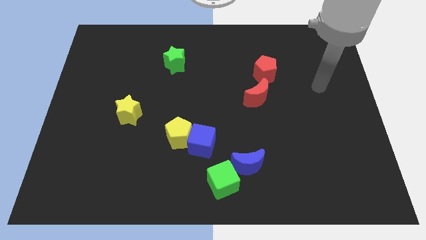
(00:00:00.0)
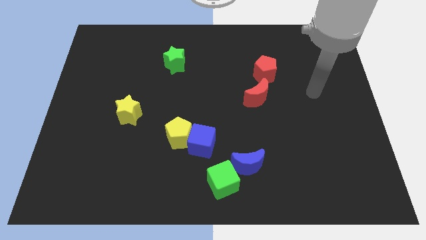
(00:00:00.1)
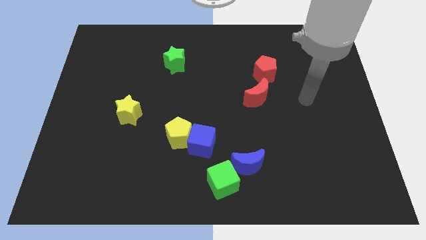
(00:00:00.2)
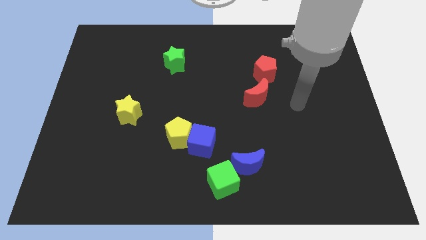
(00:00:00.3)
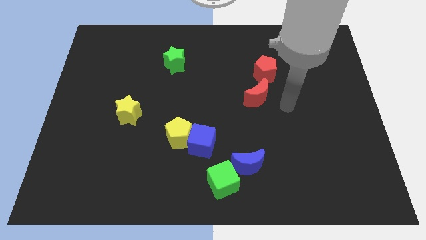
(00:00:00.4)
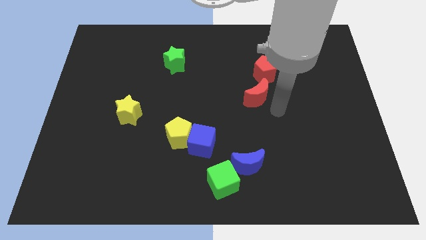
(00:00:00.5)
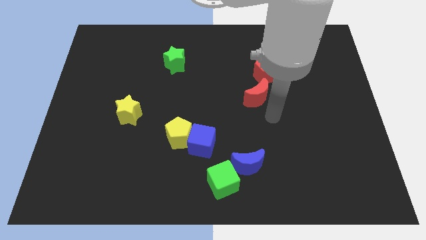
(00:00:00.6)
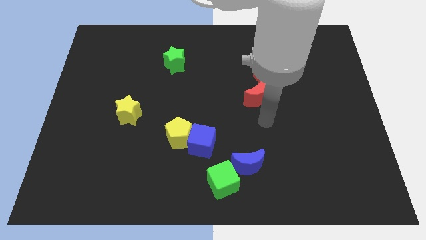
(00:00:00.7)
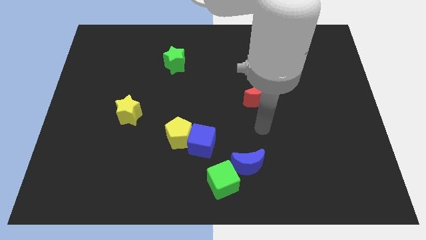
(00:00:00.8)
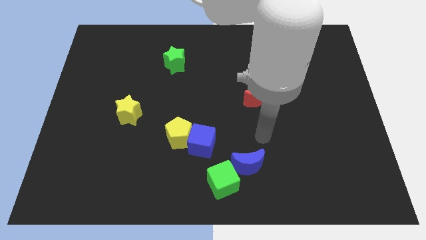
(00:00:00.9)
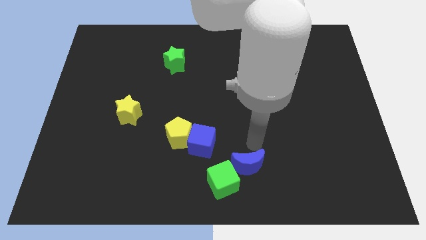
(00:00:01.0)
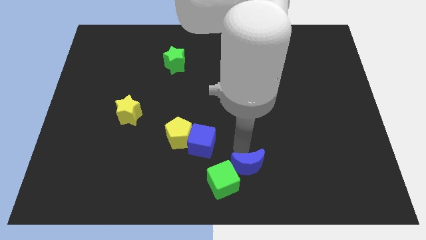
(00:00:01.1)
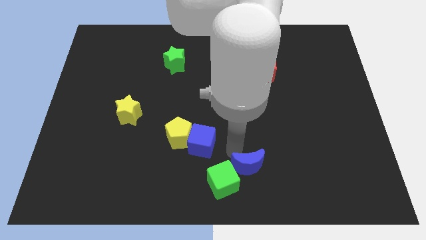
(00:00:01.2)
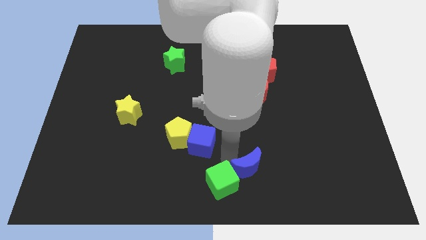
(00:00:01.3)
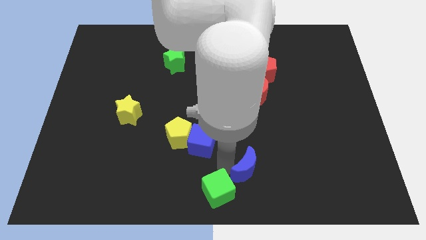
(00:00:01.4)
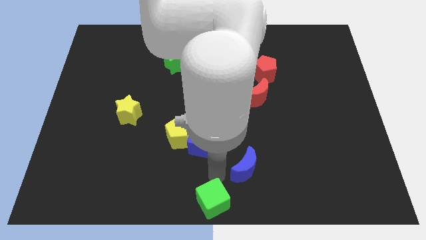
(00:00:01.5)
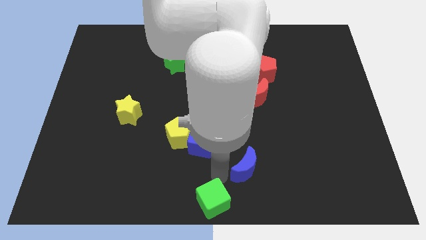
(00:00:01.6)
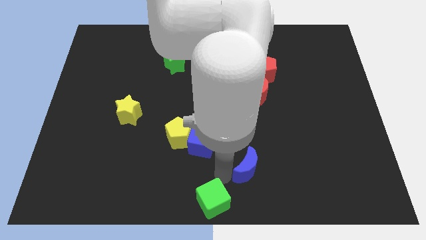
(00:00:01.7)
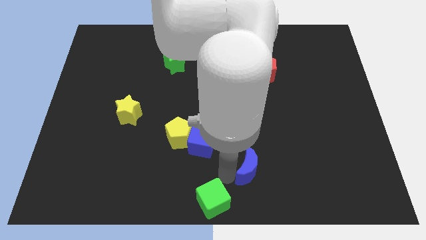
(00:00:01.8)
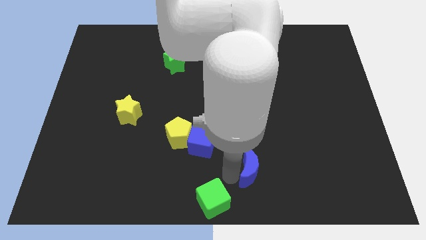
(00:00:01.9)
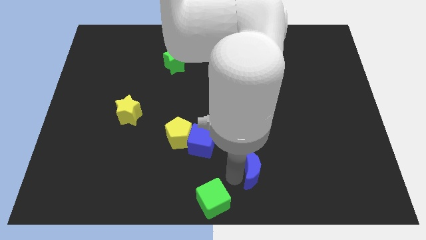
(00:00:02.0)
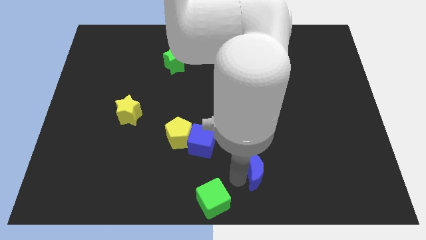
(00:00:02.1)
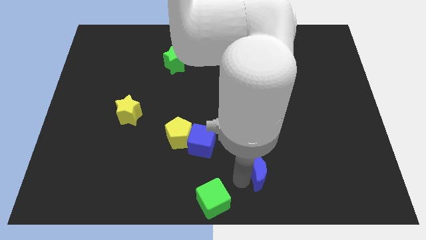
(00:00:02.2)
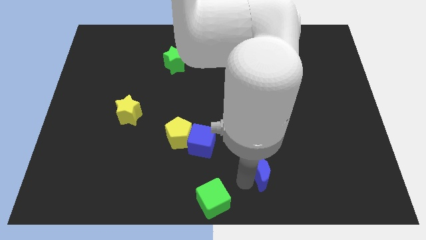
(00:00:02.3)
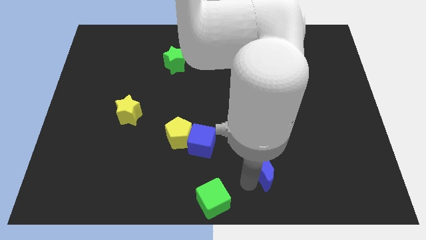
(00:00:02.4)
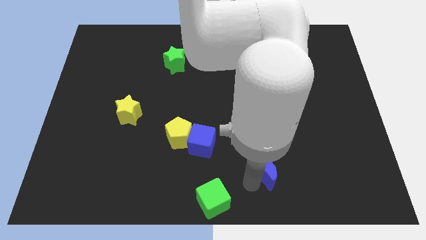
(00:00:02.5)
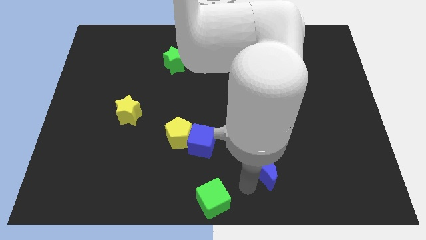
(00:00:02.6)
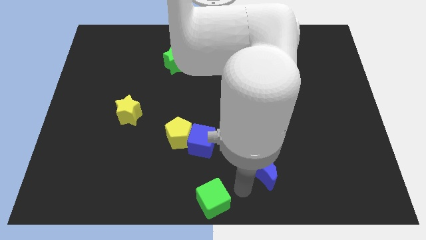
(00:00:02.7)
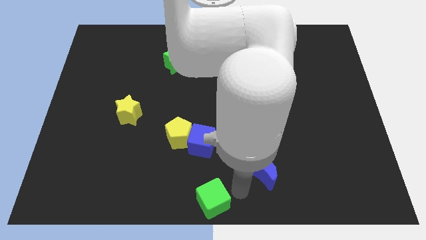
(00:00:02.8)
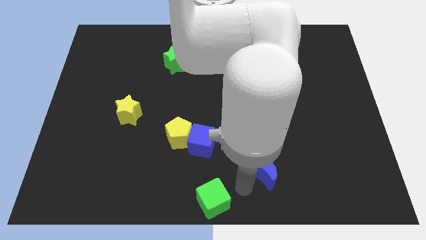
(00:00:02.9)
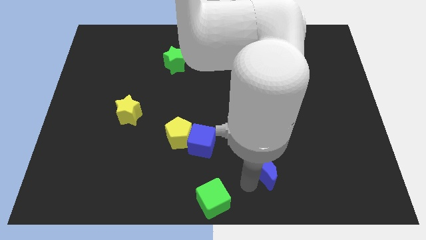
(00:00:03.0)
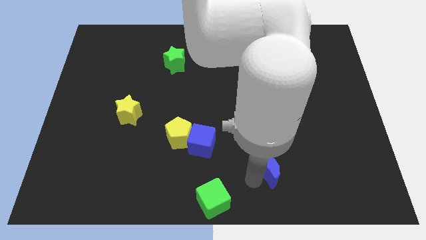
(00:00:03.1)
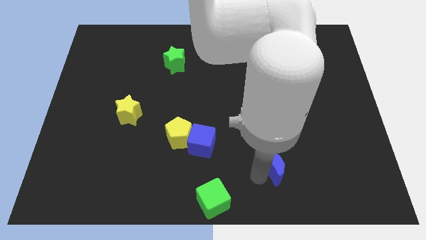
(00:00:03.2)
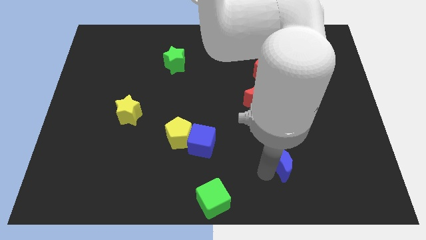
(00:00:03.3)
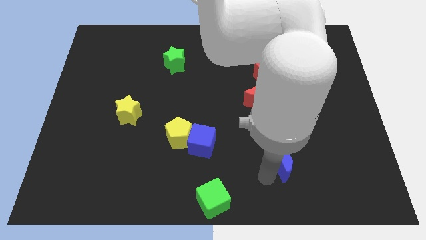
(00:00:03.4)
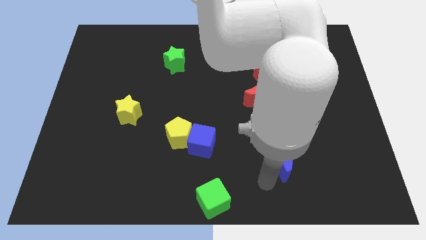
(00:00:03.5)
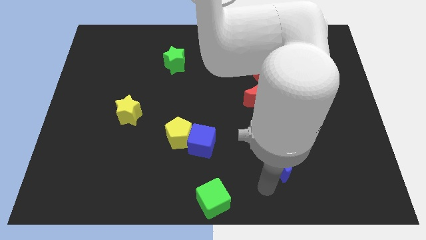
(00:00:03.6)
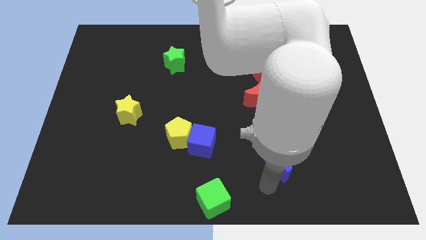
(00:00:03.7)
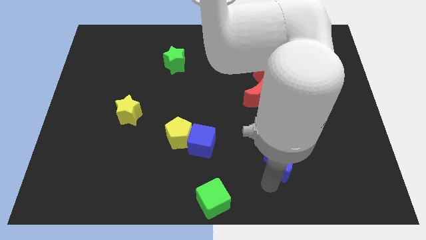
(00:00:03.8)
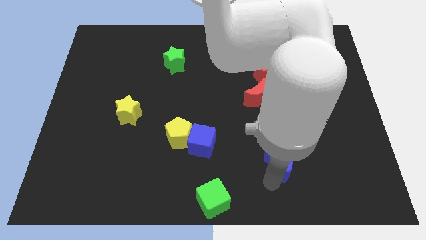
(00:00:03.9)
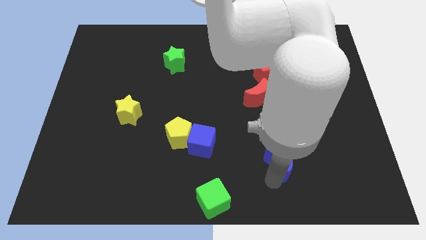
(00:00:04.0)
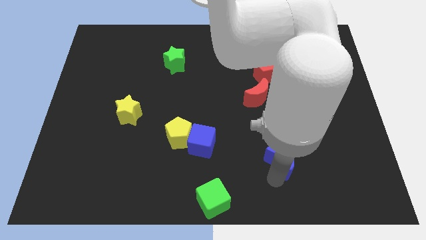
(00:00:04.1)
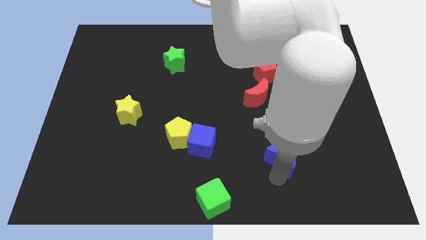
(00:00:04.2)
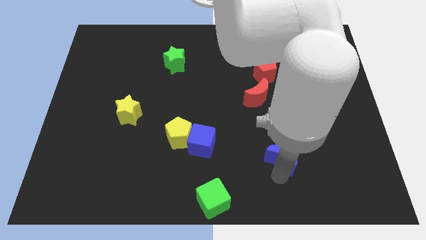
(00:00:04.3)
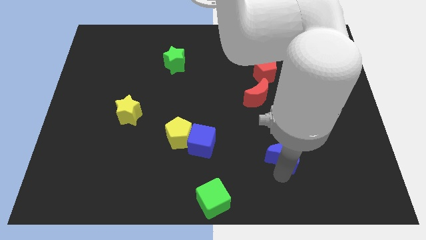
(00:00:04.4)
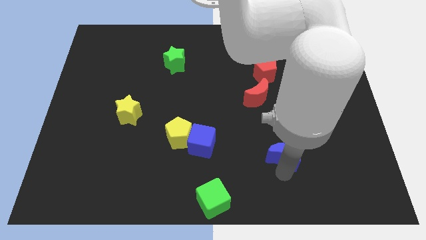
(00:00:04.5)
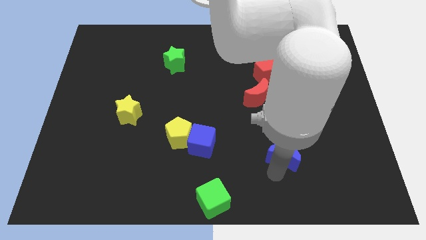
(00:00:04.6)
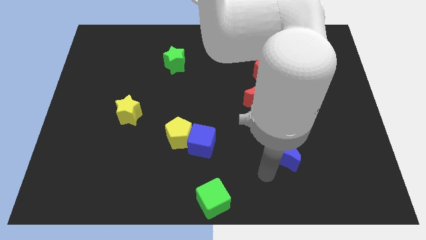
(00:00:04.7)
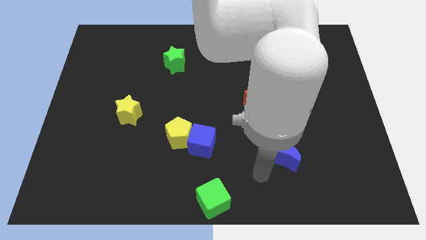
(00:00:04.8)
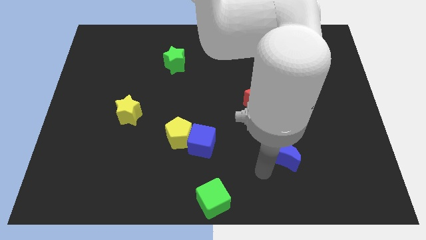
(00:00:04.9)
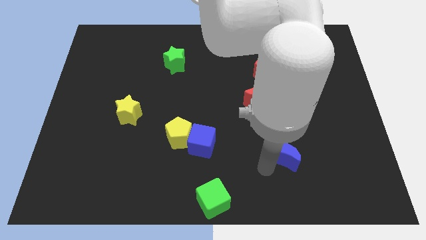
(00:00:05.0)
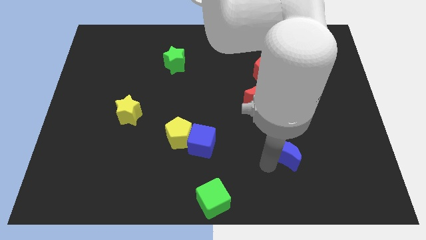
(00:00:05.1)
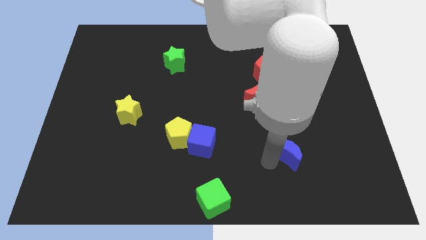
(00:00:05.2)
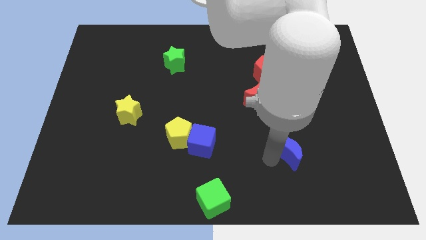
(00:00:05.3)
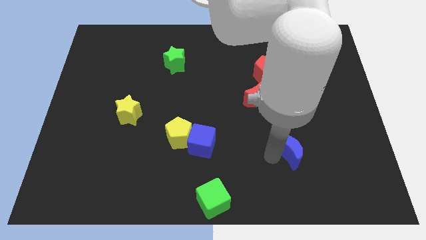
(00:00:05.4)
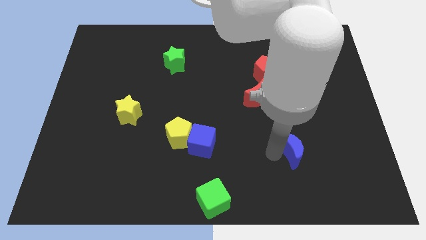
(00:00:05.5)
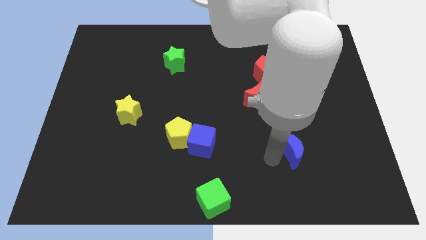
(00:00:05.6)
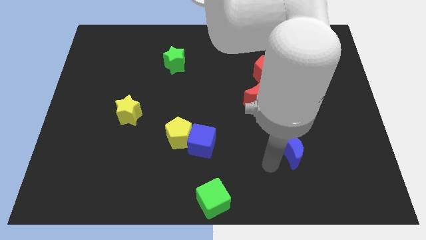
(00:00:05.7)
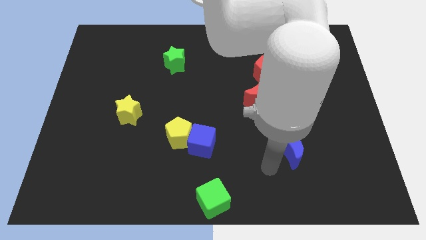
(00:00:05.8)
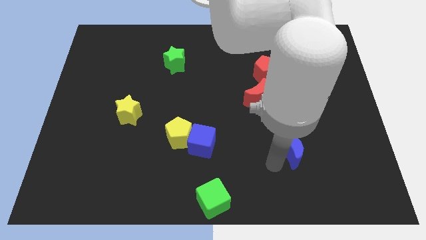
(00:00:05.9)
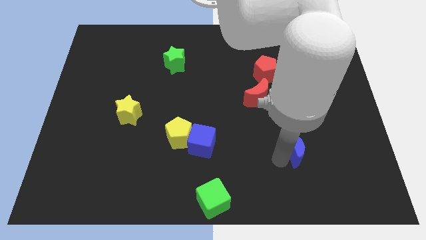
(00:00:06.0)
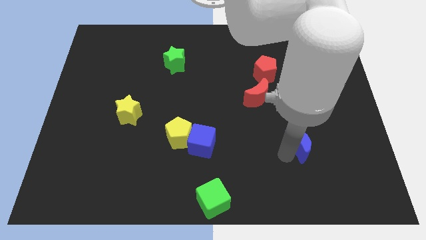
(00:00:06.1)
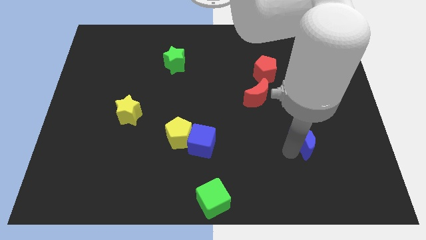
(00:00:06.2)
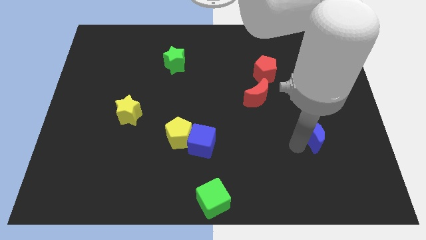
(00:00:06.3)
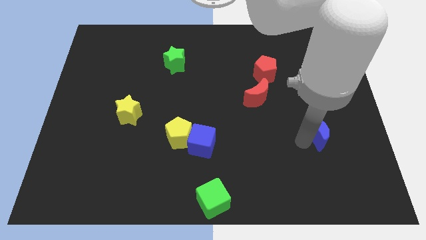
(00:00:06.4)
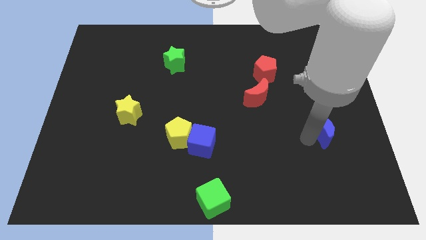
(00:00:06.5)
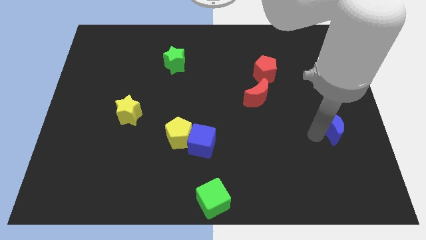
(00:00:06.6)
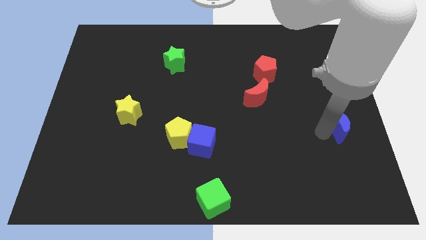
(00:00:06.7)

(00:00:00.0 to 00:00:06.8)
slide the blue moon to the right side

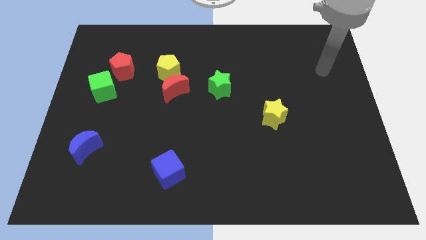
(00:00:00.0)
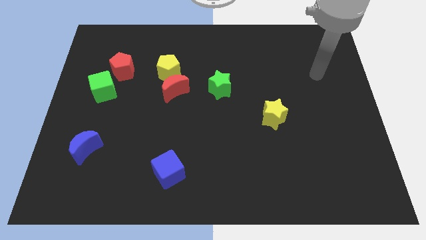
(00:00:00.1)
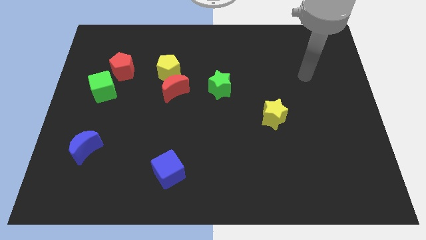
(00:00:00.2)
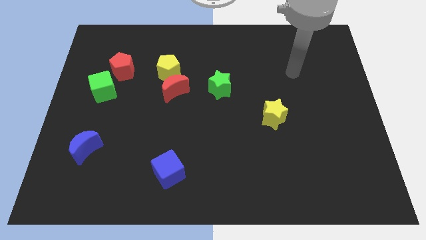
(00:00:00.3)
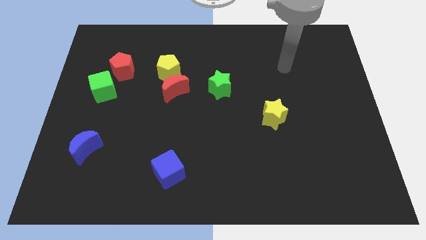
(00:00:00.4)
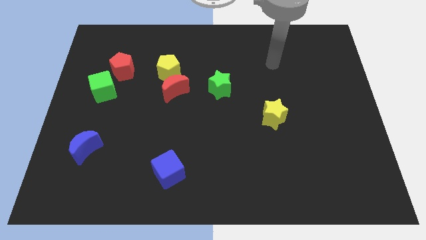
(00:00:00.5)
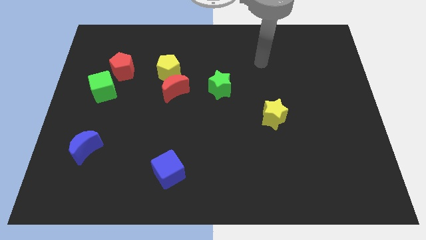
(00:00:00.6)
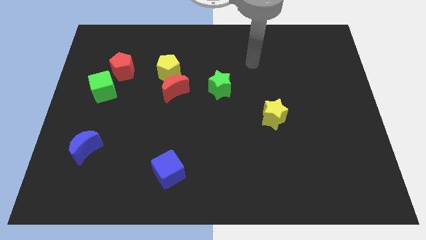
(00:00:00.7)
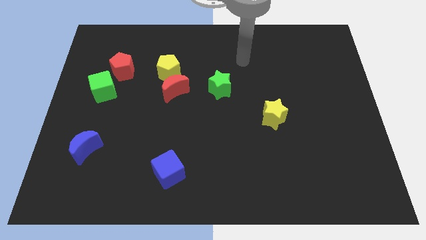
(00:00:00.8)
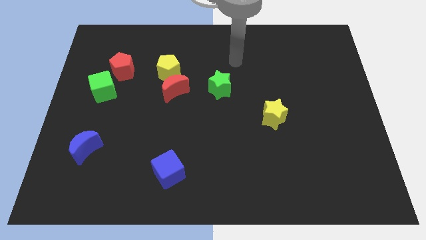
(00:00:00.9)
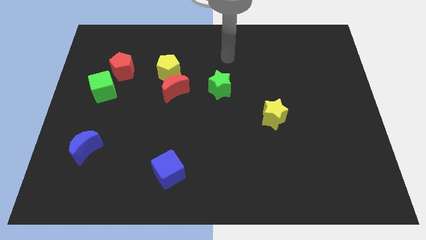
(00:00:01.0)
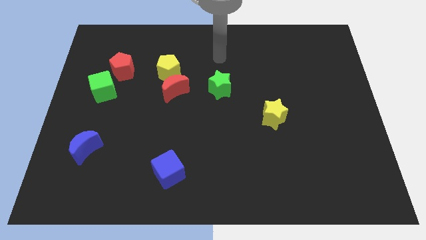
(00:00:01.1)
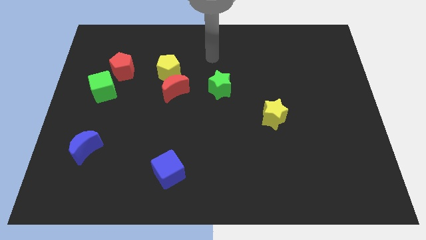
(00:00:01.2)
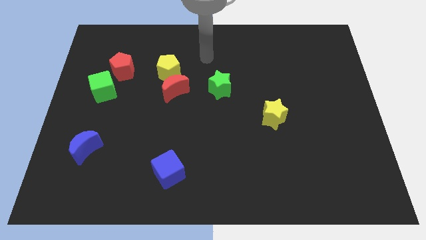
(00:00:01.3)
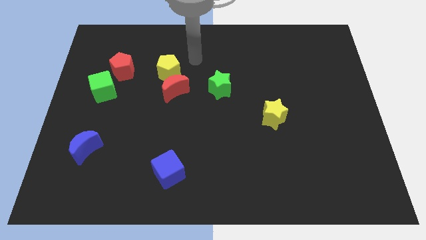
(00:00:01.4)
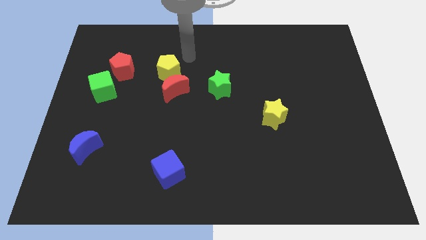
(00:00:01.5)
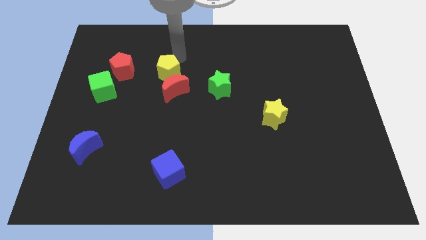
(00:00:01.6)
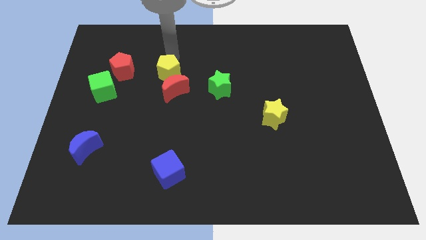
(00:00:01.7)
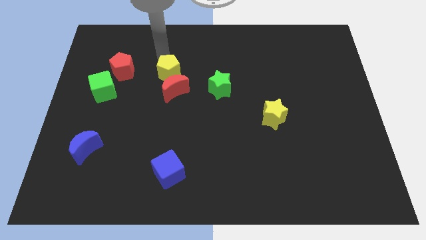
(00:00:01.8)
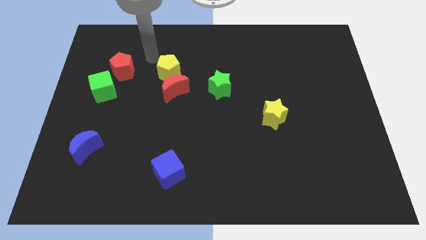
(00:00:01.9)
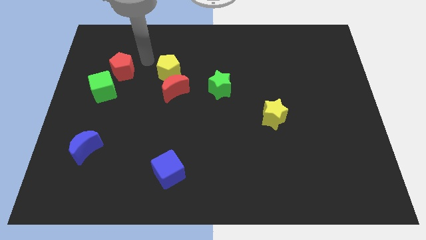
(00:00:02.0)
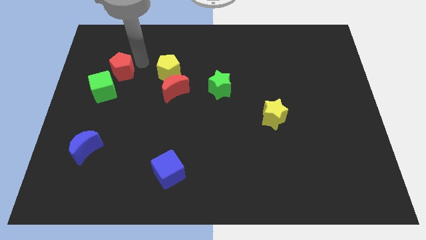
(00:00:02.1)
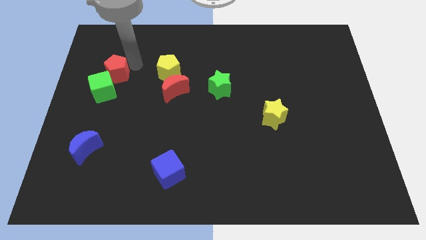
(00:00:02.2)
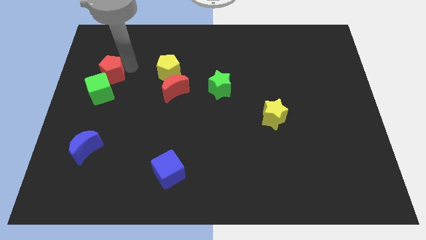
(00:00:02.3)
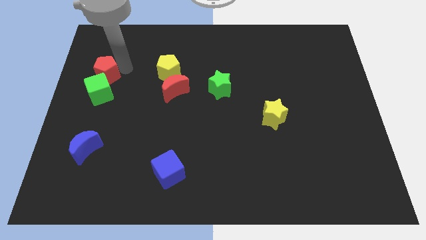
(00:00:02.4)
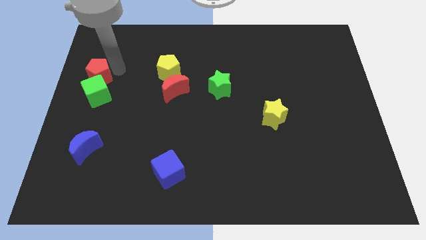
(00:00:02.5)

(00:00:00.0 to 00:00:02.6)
move the red pentagon to the left side of the board
